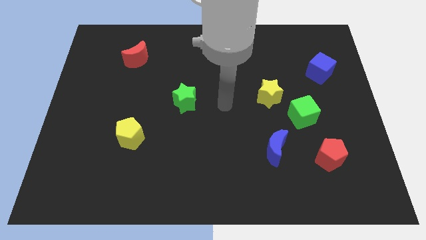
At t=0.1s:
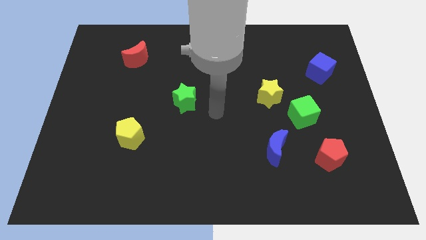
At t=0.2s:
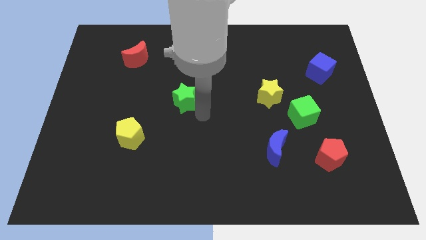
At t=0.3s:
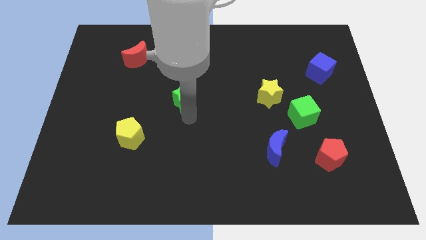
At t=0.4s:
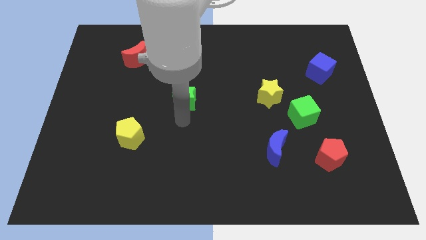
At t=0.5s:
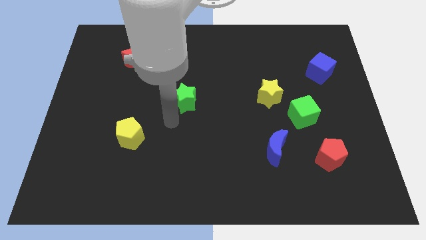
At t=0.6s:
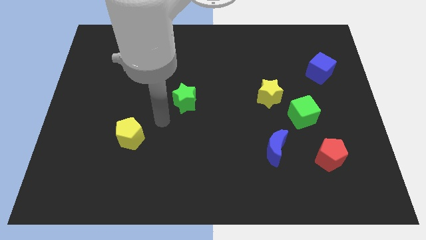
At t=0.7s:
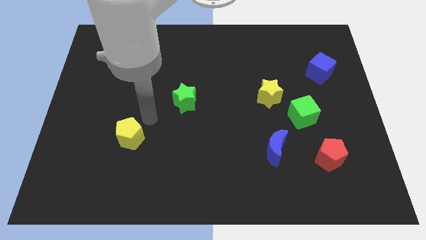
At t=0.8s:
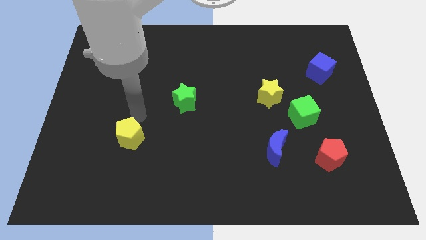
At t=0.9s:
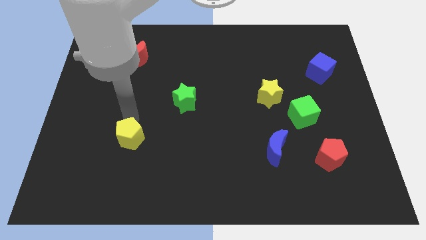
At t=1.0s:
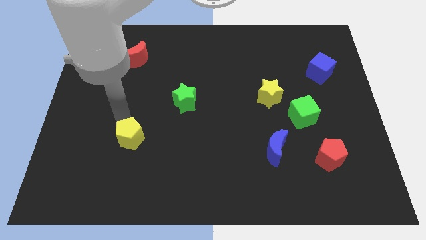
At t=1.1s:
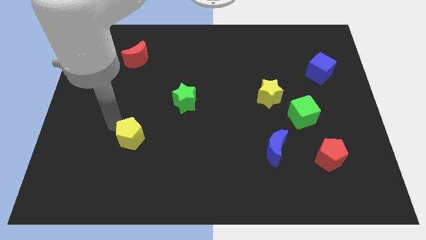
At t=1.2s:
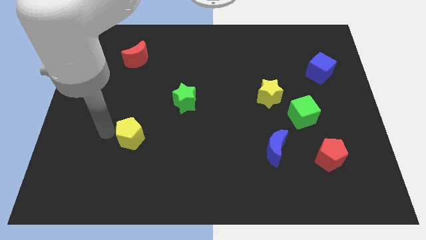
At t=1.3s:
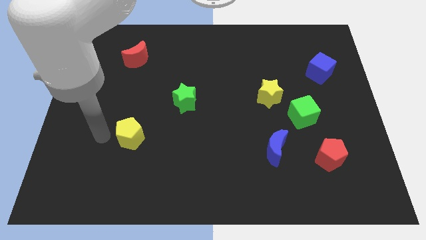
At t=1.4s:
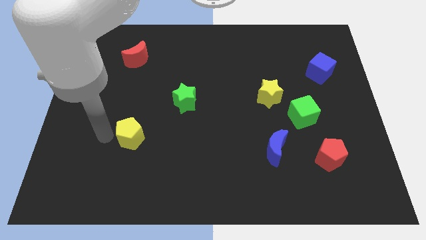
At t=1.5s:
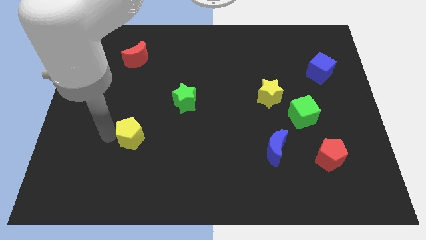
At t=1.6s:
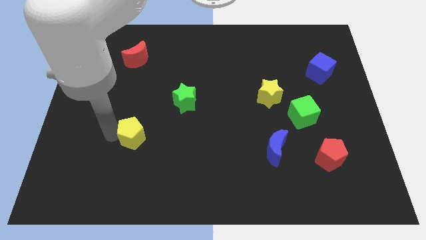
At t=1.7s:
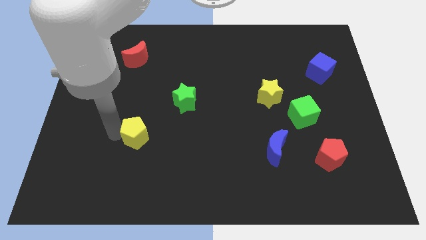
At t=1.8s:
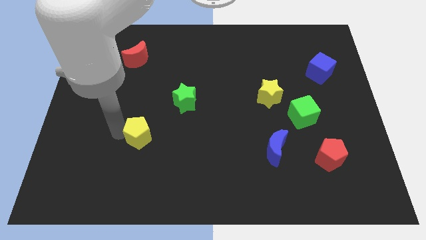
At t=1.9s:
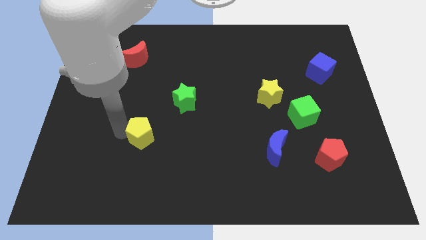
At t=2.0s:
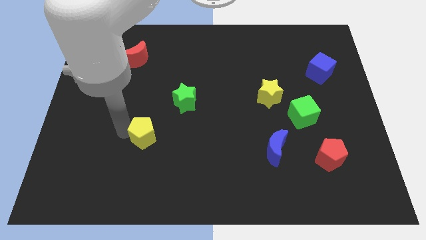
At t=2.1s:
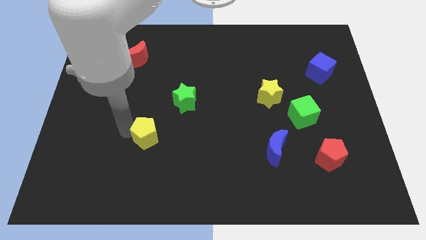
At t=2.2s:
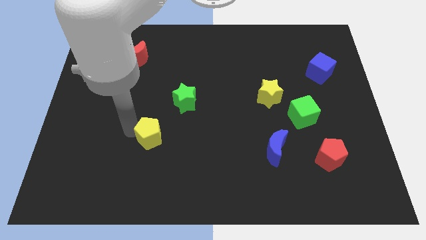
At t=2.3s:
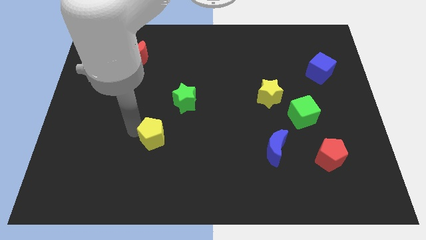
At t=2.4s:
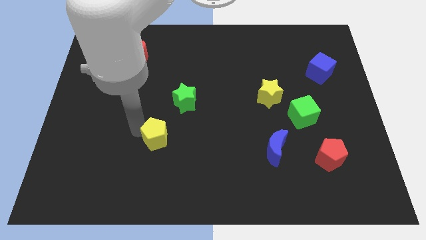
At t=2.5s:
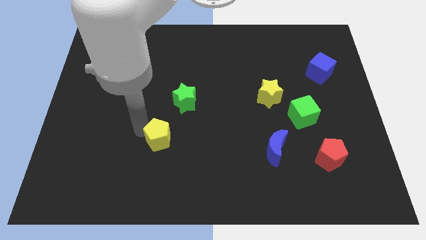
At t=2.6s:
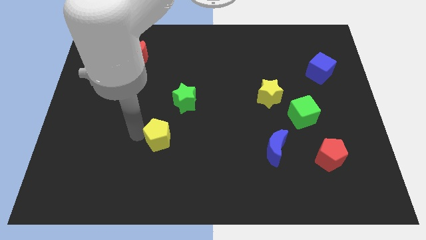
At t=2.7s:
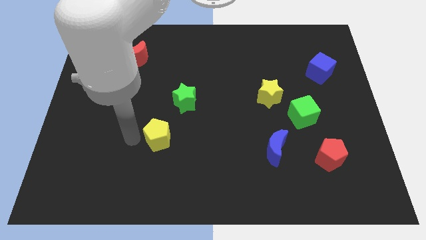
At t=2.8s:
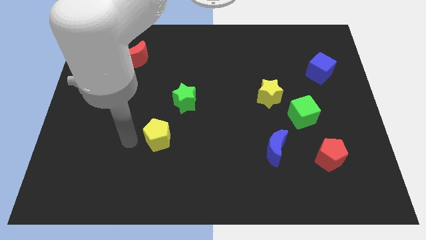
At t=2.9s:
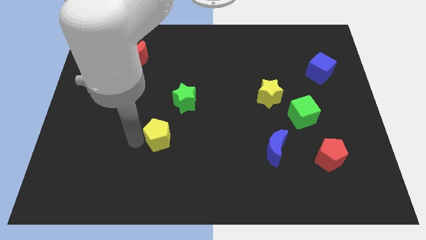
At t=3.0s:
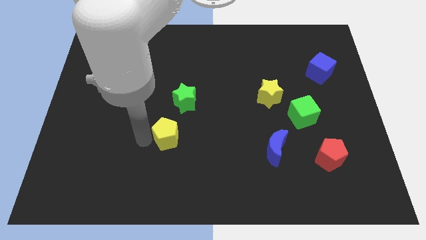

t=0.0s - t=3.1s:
slightly move the yellow pentagon to the right

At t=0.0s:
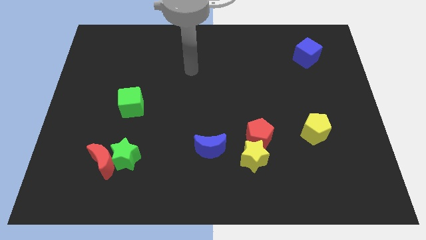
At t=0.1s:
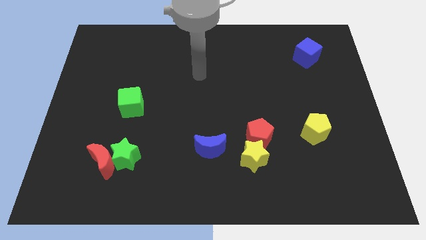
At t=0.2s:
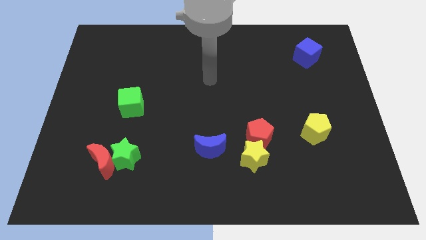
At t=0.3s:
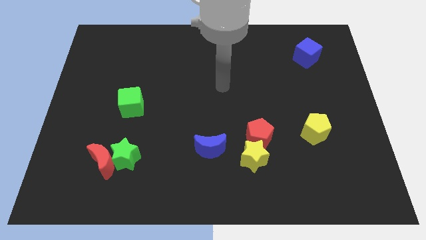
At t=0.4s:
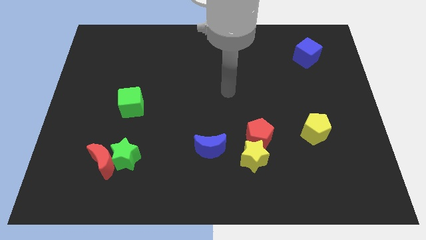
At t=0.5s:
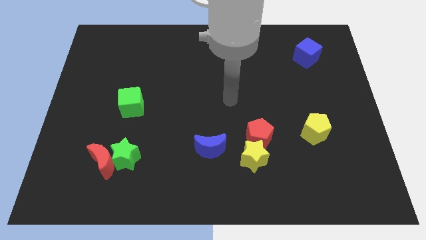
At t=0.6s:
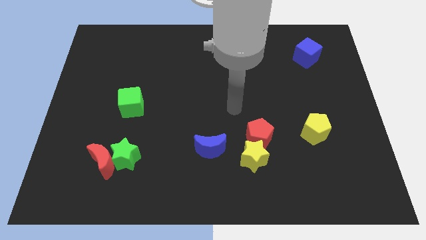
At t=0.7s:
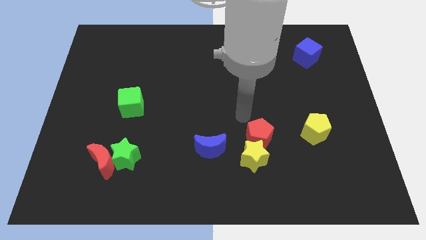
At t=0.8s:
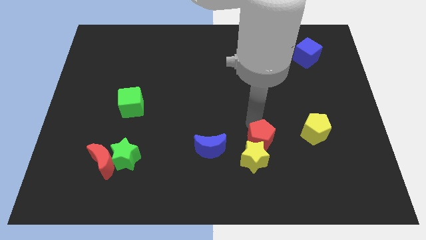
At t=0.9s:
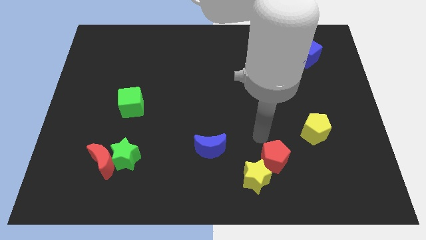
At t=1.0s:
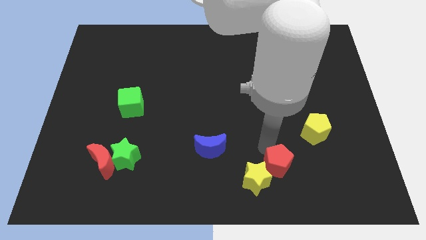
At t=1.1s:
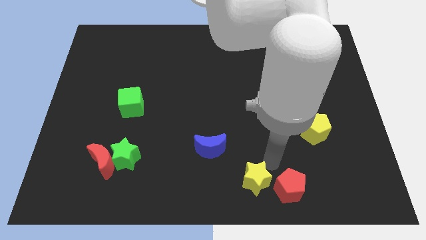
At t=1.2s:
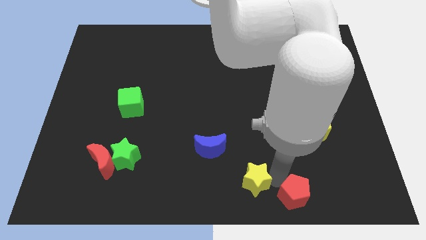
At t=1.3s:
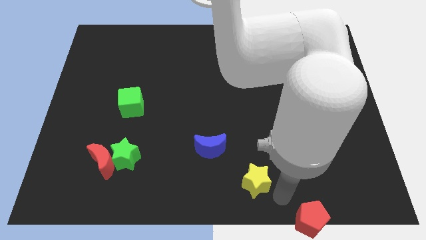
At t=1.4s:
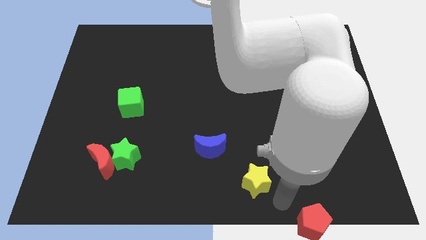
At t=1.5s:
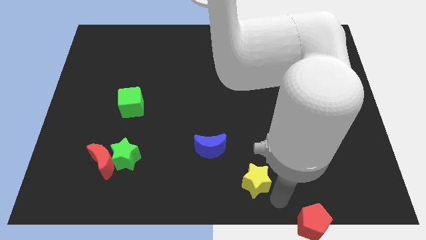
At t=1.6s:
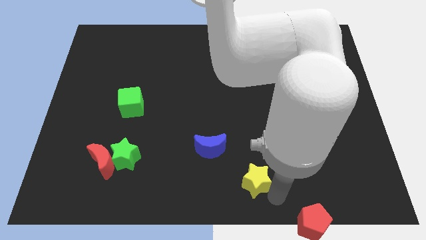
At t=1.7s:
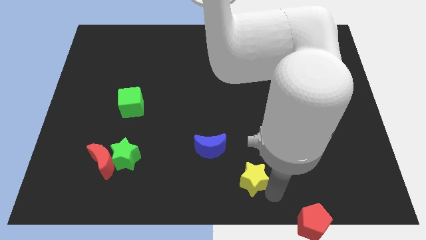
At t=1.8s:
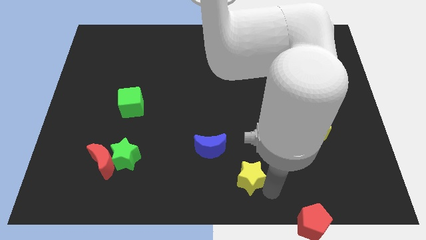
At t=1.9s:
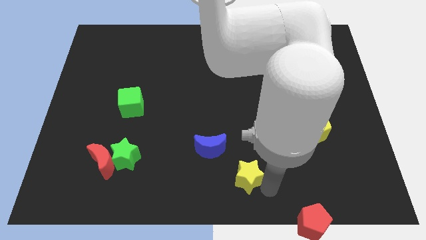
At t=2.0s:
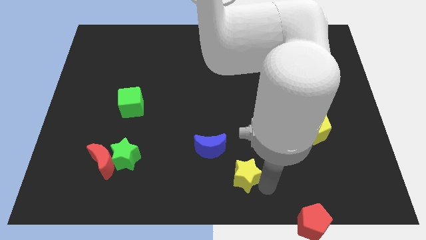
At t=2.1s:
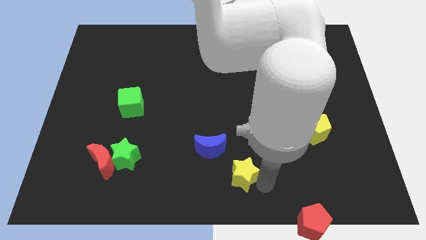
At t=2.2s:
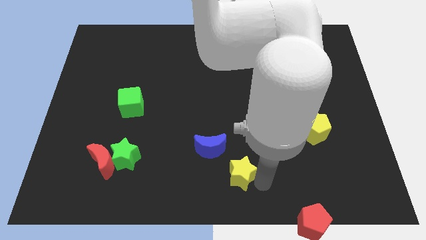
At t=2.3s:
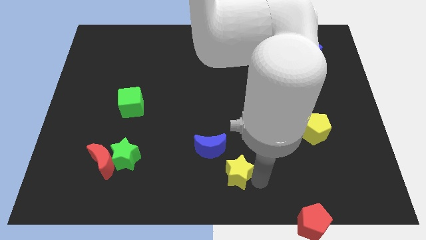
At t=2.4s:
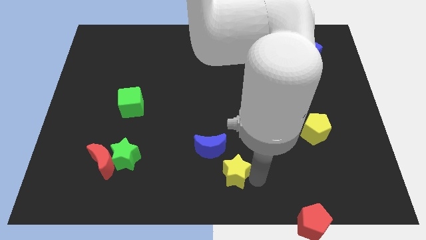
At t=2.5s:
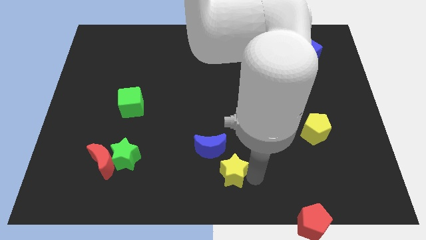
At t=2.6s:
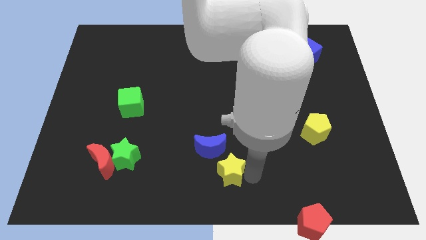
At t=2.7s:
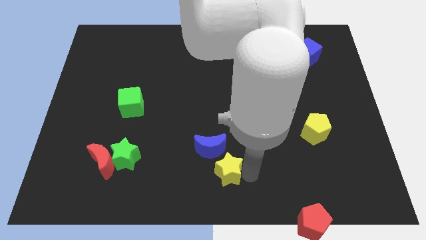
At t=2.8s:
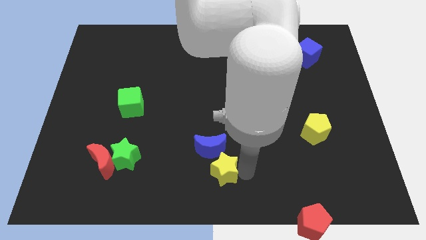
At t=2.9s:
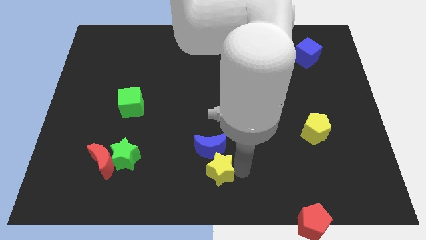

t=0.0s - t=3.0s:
slightly slide the yellow star to the left

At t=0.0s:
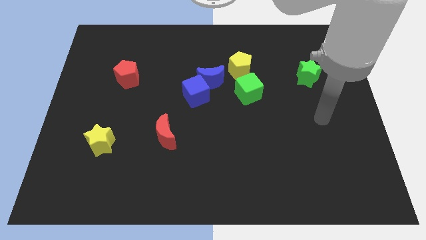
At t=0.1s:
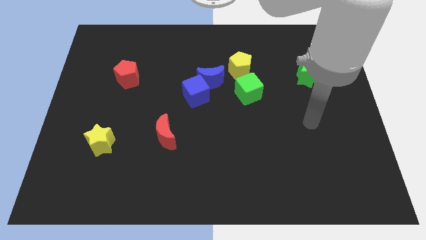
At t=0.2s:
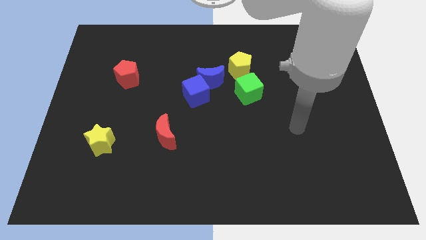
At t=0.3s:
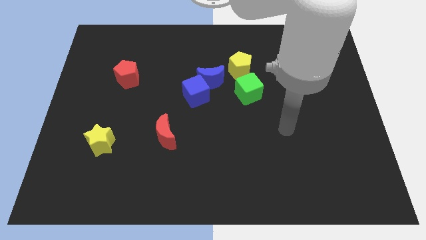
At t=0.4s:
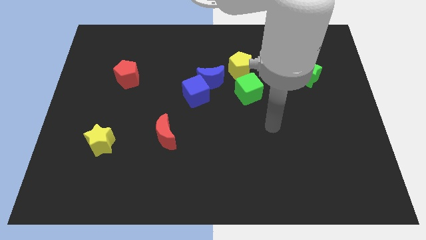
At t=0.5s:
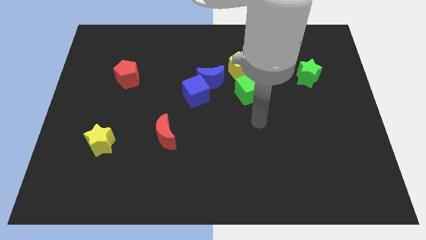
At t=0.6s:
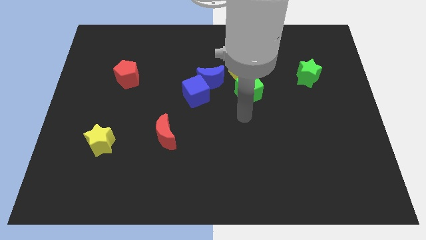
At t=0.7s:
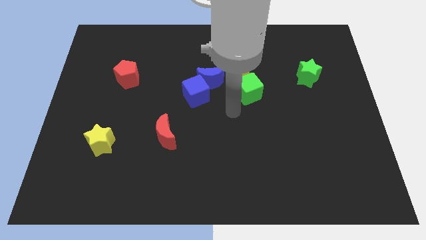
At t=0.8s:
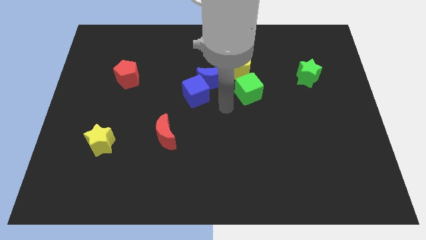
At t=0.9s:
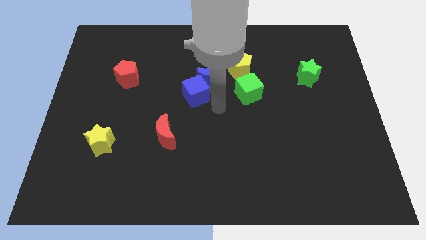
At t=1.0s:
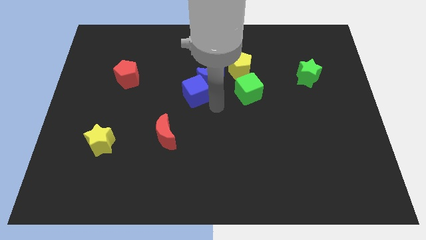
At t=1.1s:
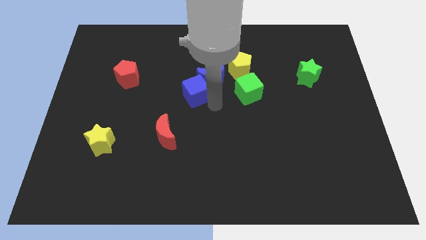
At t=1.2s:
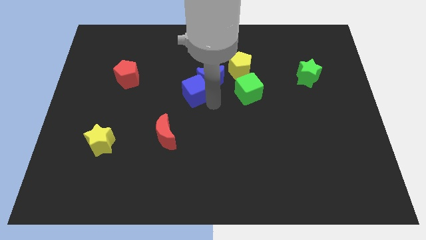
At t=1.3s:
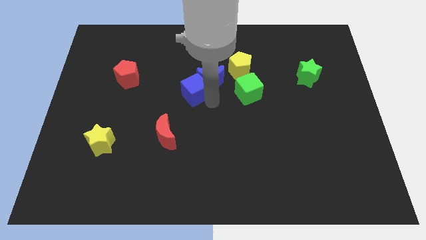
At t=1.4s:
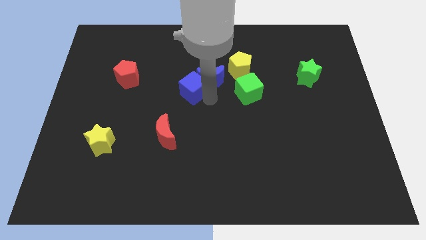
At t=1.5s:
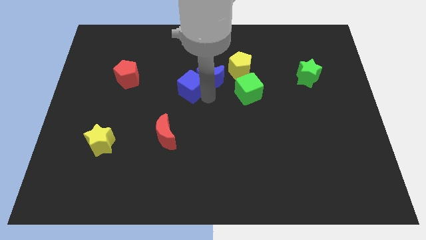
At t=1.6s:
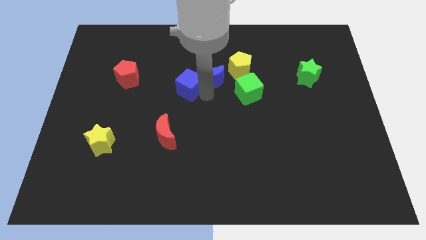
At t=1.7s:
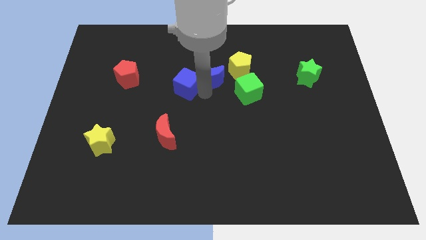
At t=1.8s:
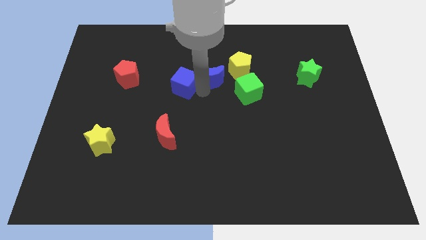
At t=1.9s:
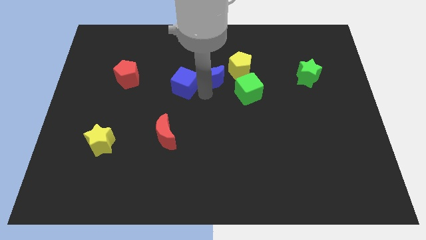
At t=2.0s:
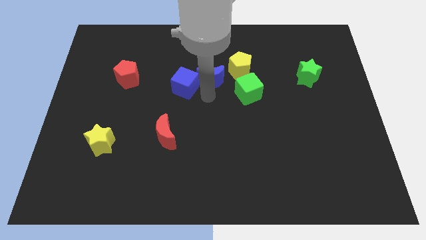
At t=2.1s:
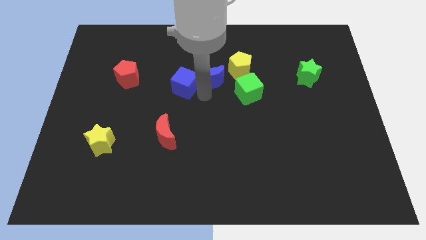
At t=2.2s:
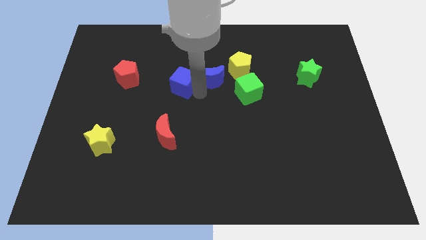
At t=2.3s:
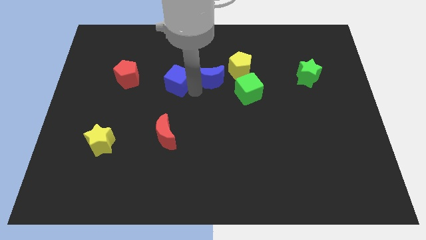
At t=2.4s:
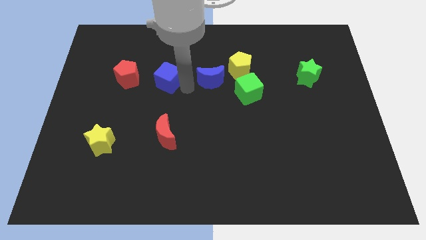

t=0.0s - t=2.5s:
slide the blue cube a little up and then left
